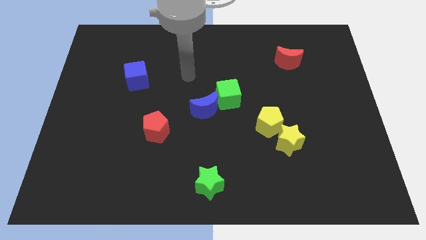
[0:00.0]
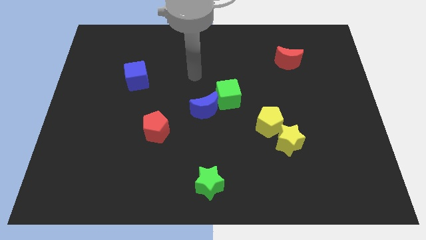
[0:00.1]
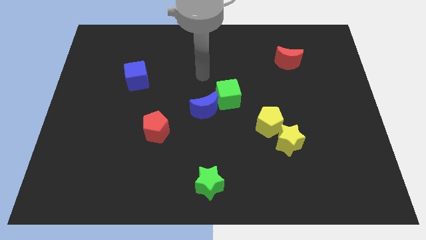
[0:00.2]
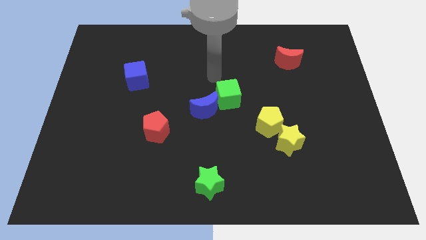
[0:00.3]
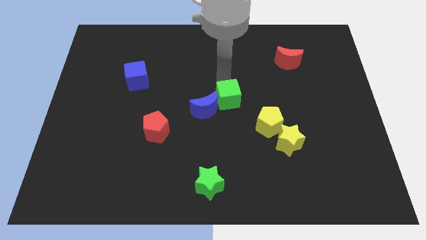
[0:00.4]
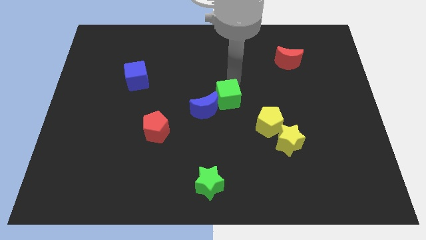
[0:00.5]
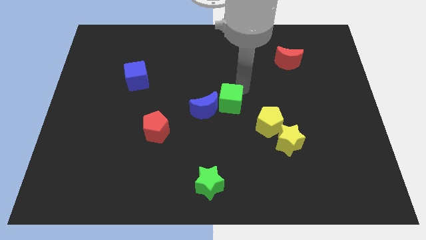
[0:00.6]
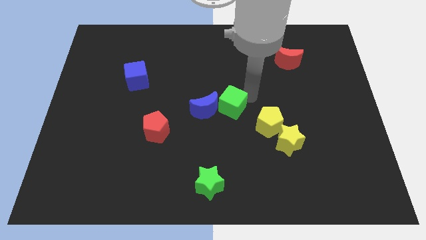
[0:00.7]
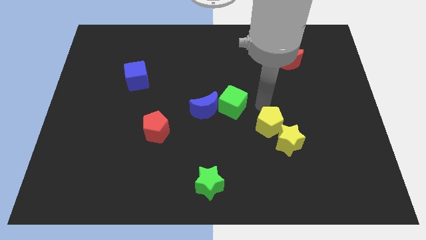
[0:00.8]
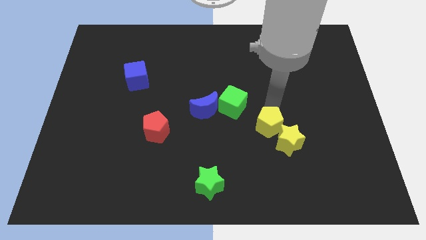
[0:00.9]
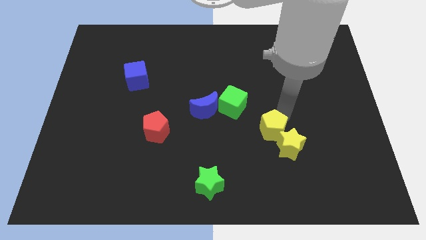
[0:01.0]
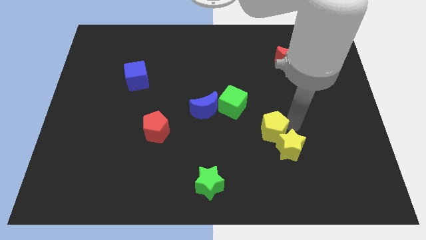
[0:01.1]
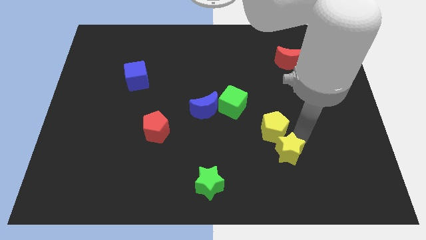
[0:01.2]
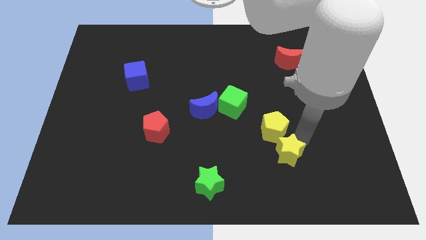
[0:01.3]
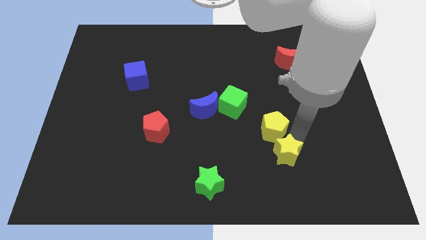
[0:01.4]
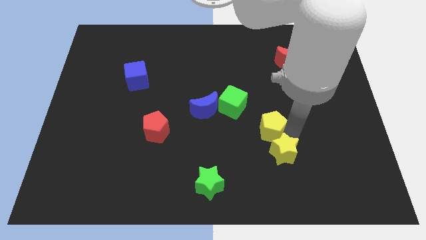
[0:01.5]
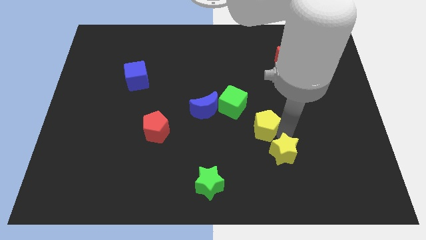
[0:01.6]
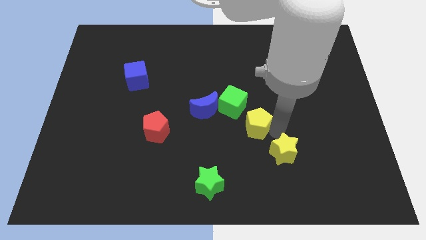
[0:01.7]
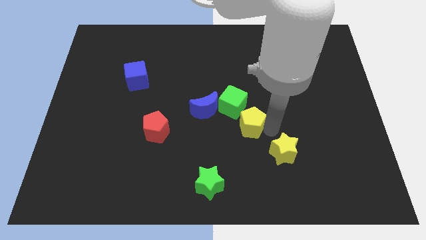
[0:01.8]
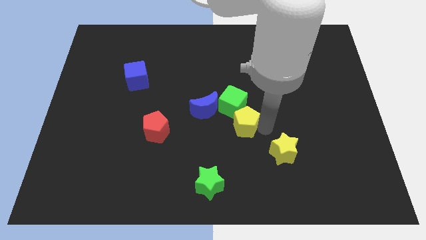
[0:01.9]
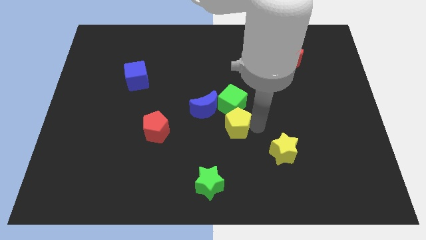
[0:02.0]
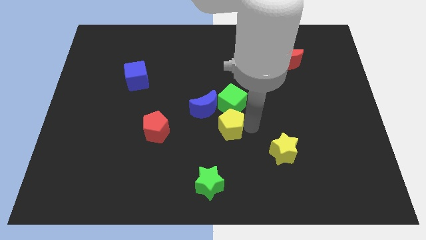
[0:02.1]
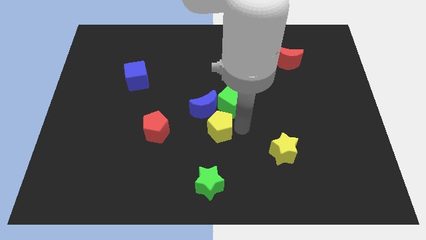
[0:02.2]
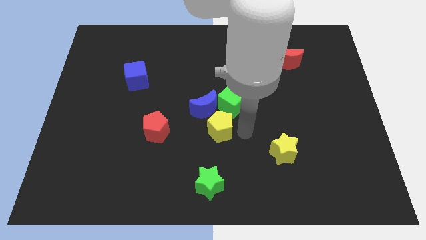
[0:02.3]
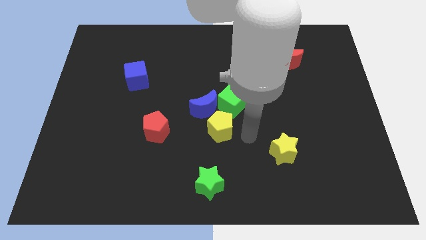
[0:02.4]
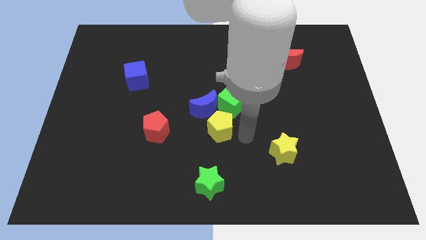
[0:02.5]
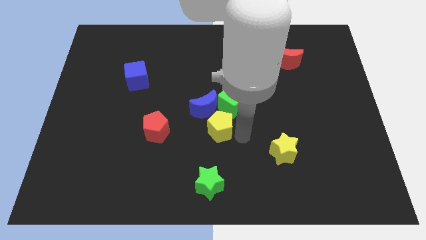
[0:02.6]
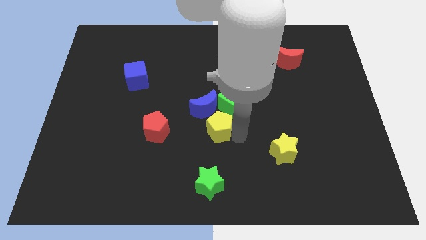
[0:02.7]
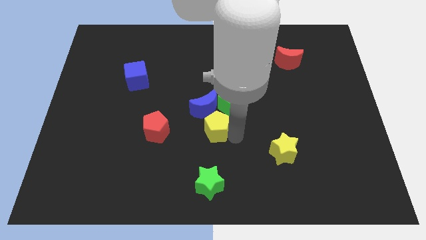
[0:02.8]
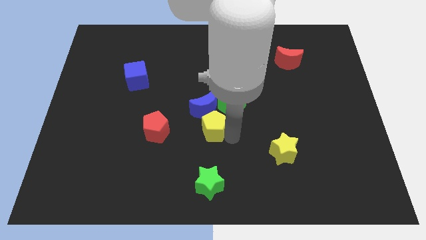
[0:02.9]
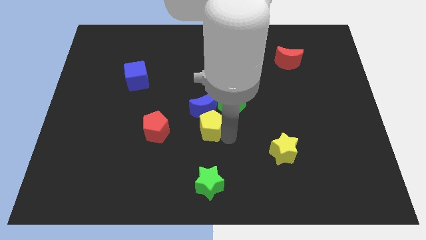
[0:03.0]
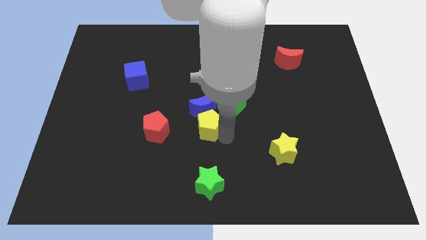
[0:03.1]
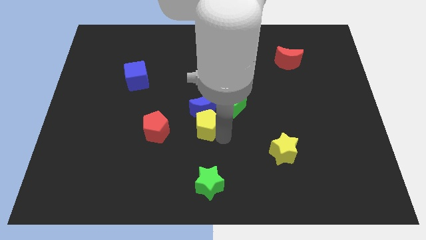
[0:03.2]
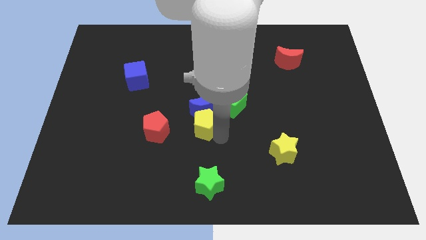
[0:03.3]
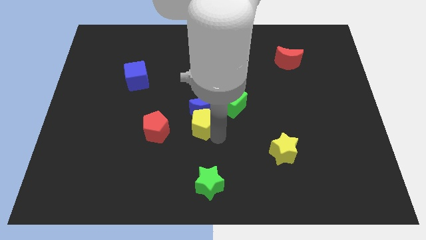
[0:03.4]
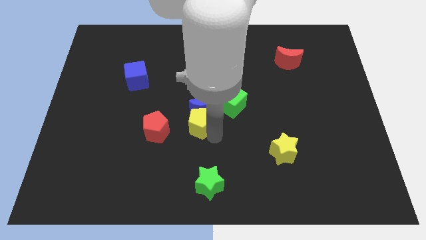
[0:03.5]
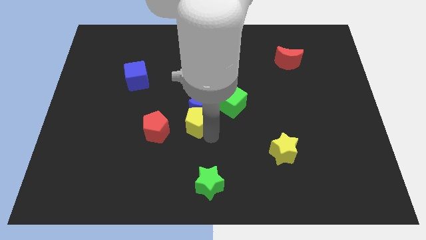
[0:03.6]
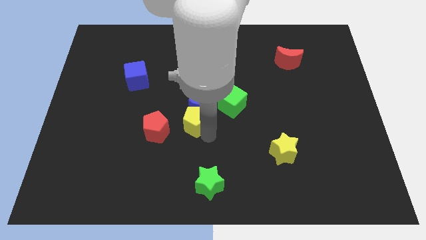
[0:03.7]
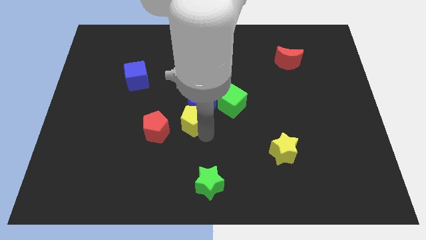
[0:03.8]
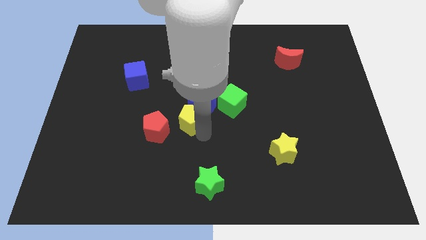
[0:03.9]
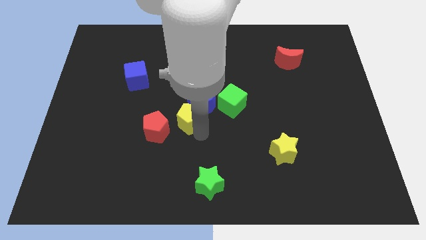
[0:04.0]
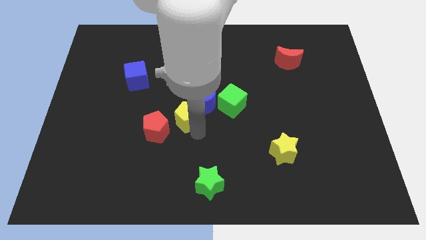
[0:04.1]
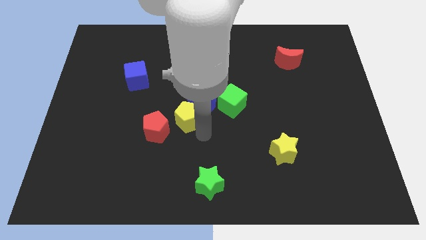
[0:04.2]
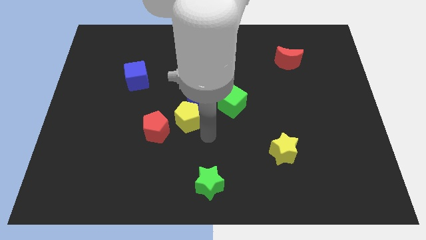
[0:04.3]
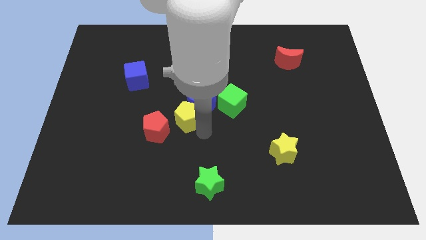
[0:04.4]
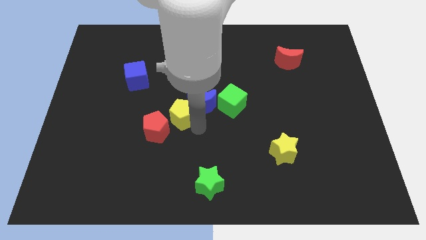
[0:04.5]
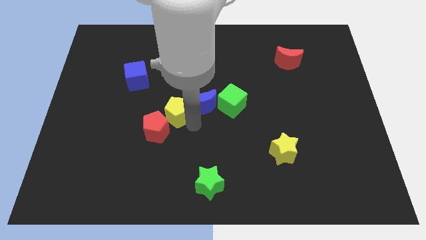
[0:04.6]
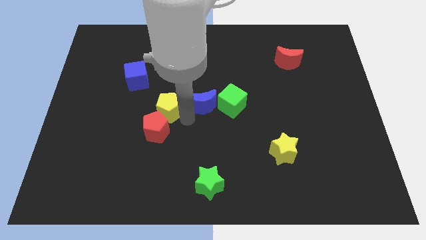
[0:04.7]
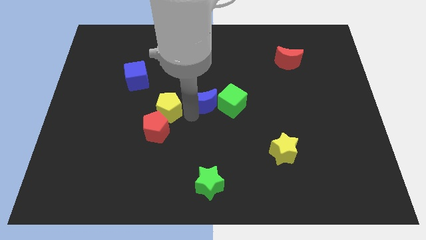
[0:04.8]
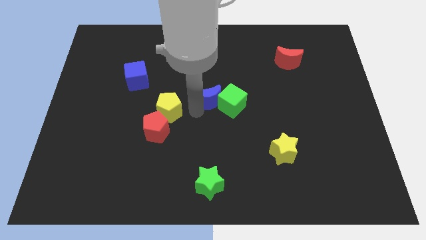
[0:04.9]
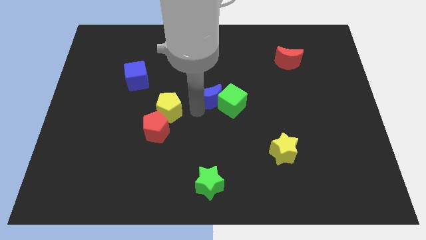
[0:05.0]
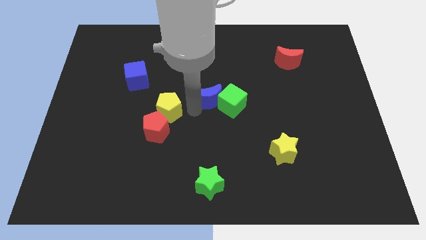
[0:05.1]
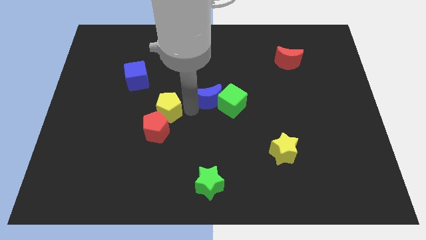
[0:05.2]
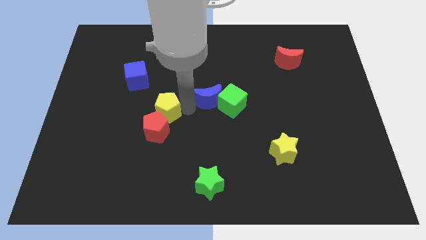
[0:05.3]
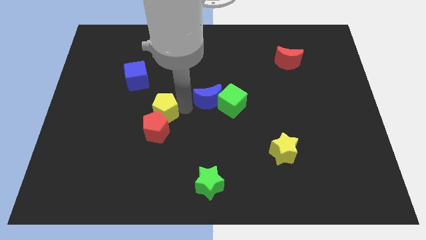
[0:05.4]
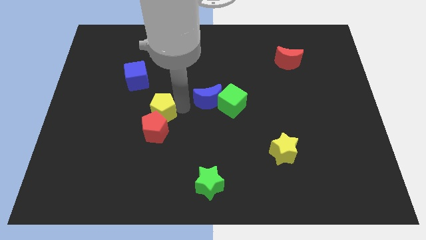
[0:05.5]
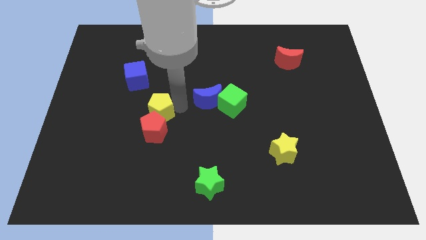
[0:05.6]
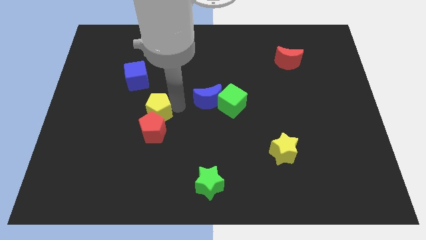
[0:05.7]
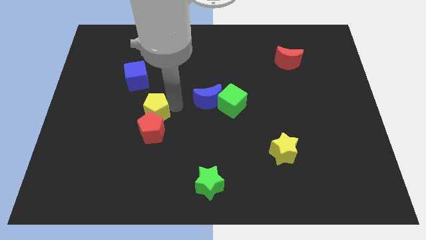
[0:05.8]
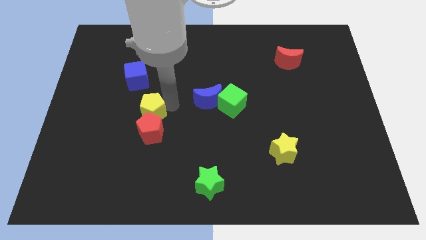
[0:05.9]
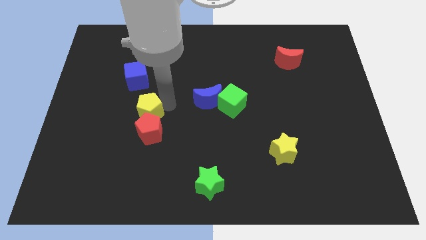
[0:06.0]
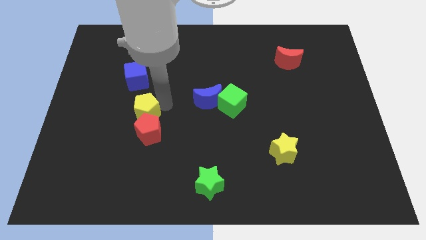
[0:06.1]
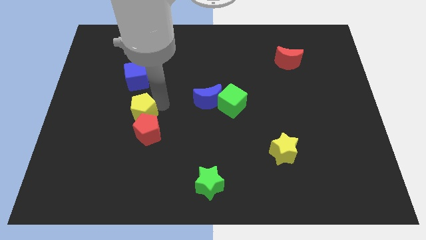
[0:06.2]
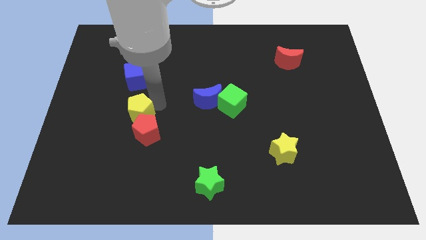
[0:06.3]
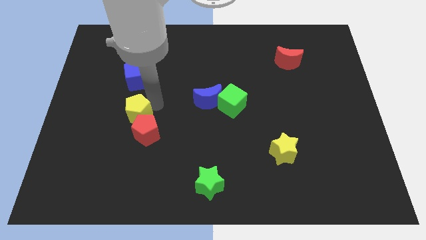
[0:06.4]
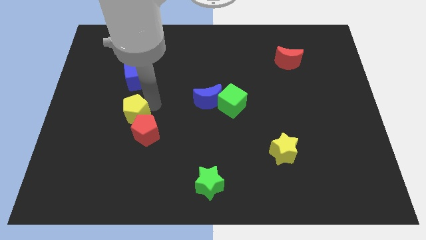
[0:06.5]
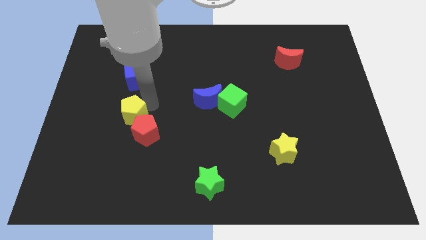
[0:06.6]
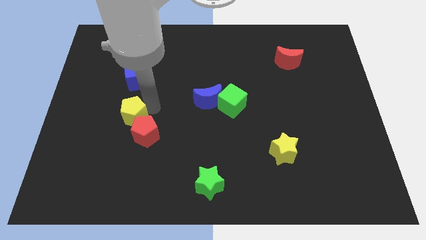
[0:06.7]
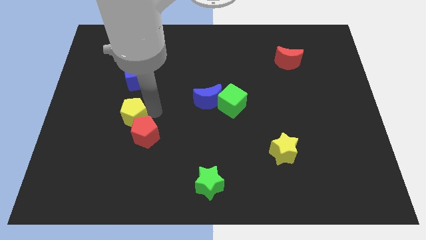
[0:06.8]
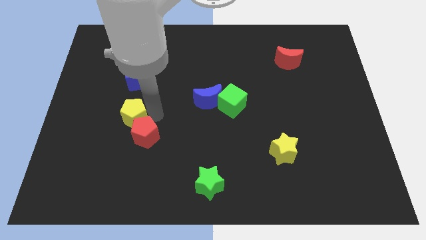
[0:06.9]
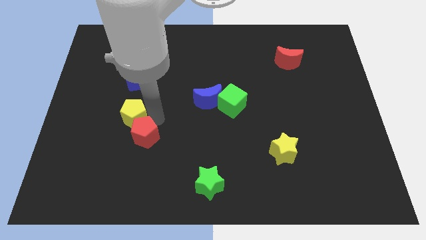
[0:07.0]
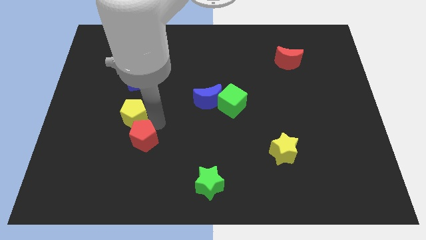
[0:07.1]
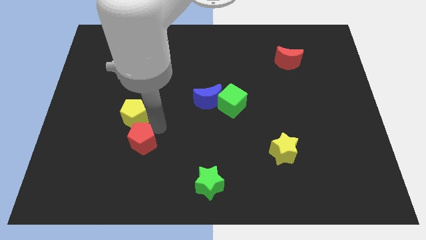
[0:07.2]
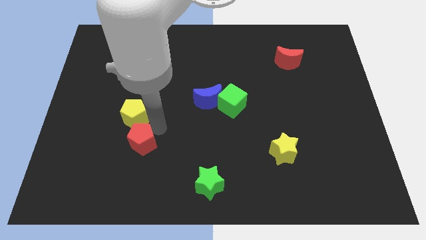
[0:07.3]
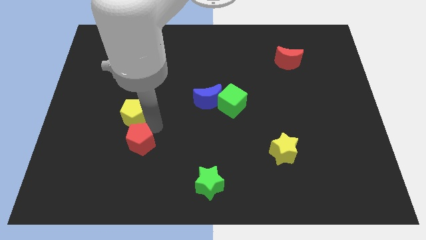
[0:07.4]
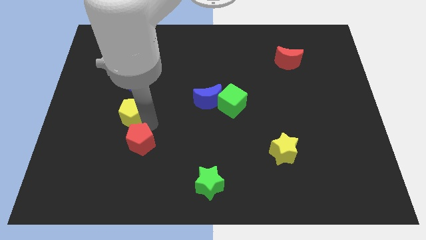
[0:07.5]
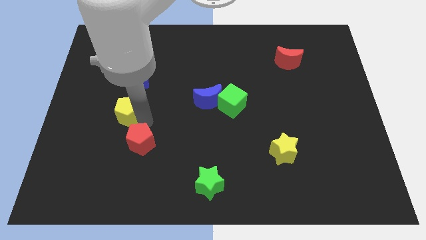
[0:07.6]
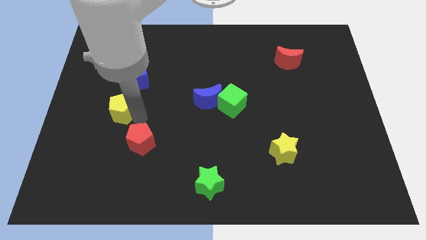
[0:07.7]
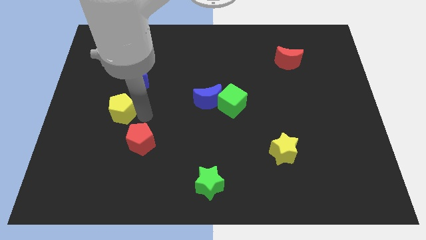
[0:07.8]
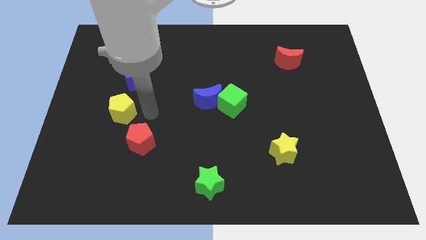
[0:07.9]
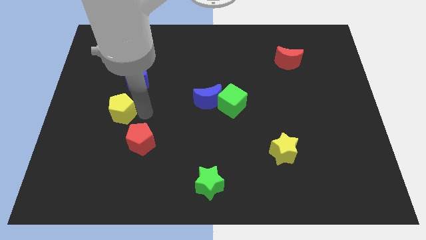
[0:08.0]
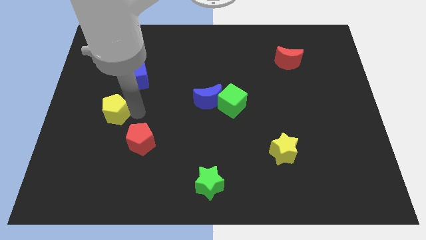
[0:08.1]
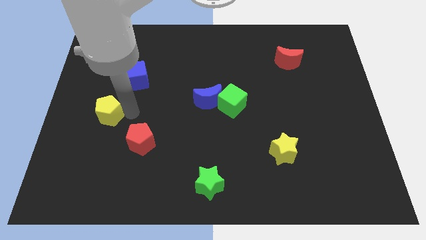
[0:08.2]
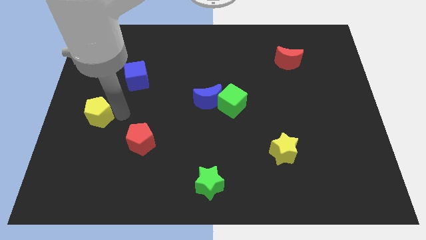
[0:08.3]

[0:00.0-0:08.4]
push the yellow pentagon to the center left
